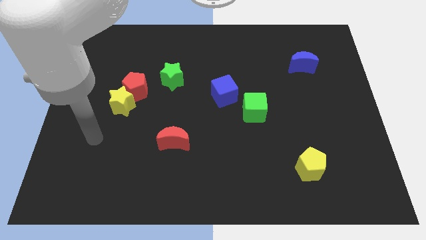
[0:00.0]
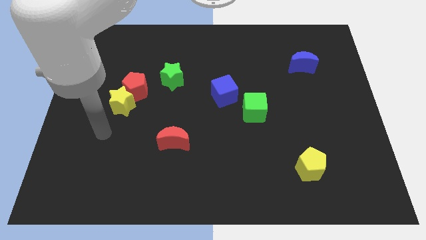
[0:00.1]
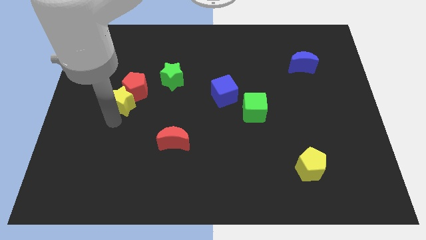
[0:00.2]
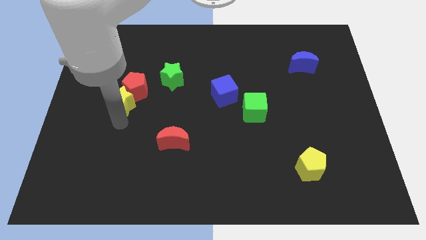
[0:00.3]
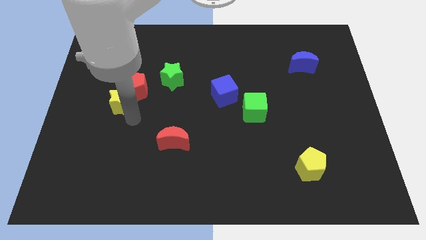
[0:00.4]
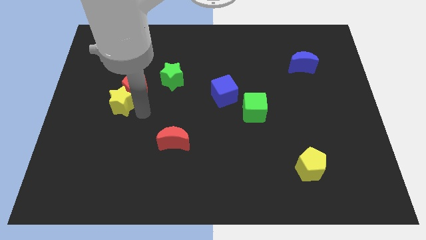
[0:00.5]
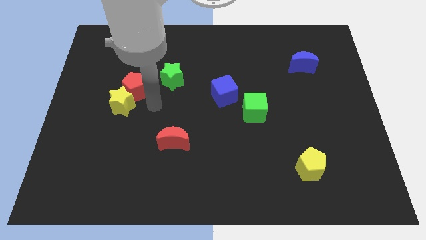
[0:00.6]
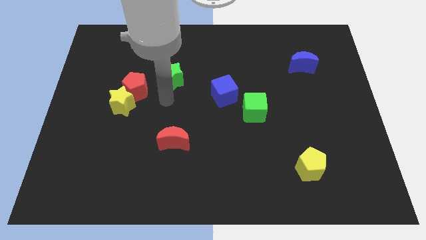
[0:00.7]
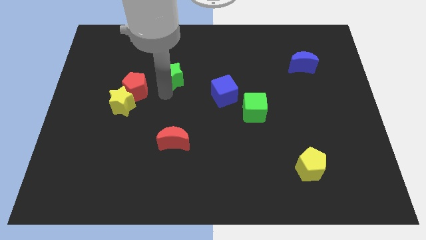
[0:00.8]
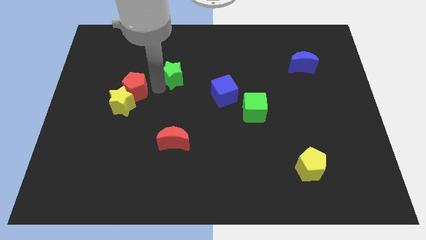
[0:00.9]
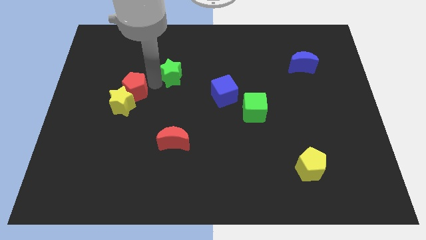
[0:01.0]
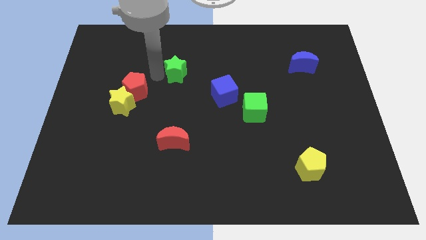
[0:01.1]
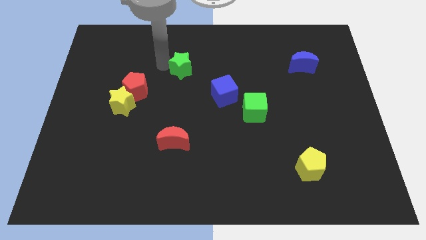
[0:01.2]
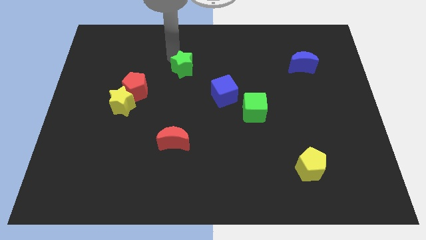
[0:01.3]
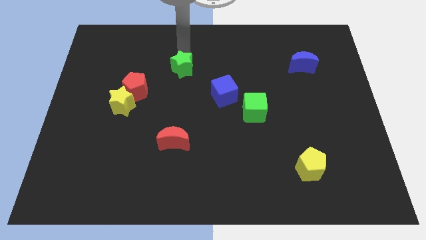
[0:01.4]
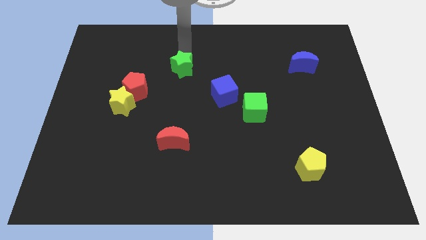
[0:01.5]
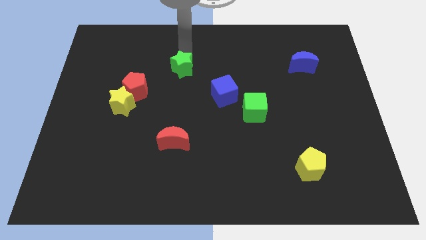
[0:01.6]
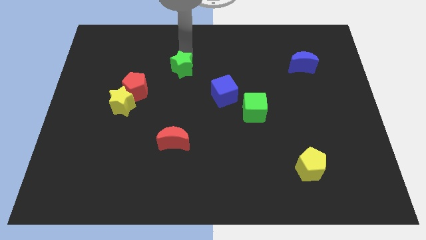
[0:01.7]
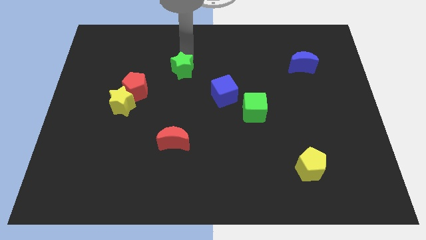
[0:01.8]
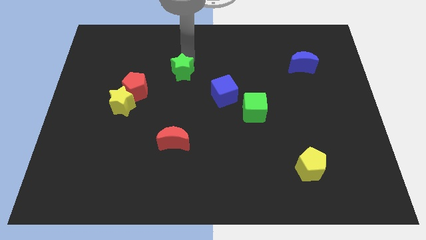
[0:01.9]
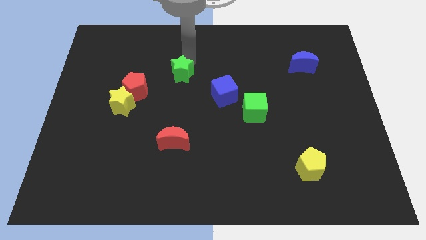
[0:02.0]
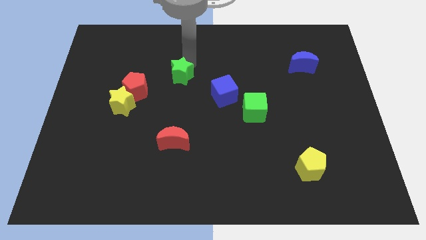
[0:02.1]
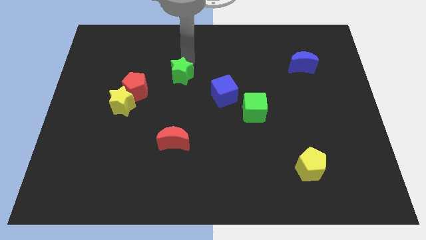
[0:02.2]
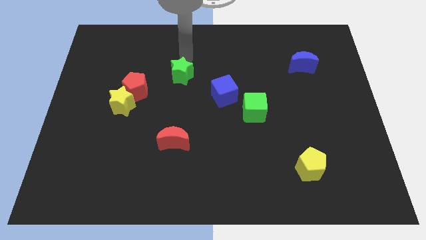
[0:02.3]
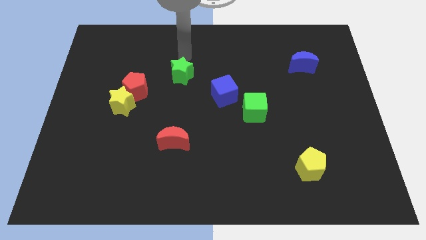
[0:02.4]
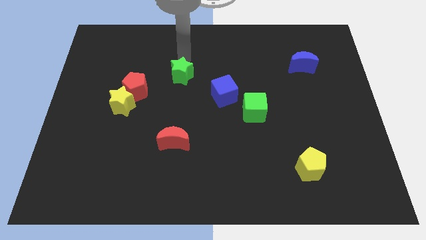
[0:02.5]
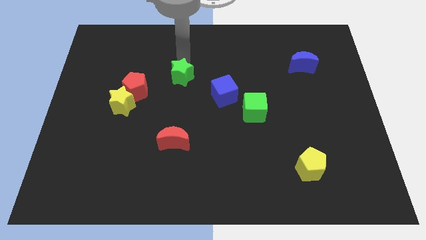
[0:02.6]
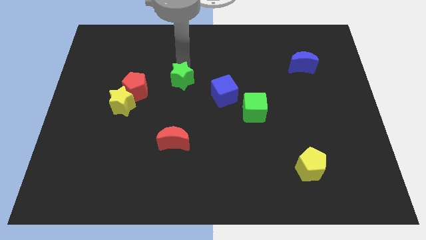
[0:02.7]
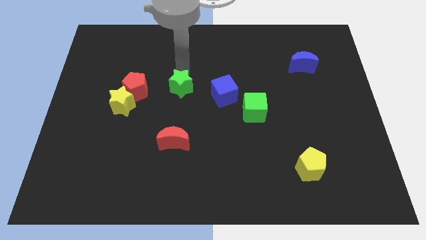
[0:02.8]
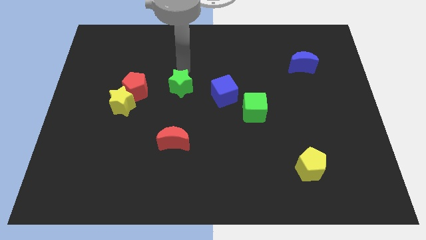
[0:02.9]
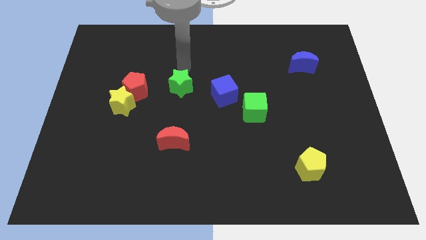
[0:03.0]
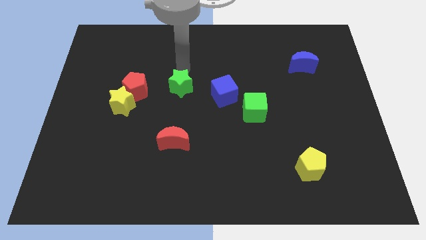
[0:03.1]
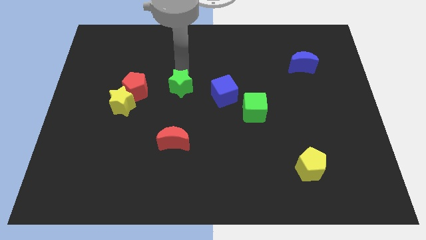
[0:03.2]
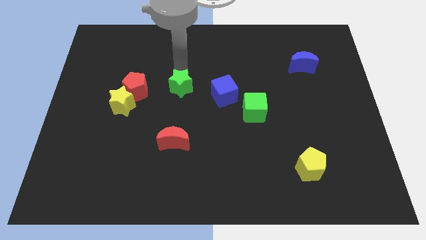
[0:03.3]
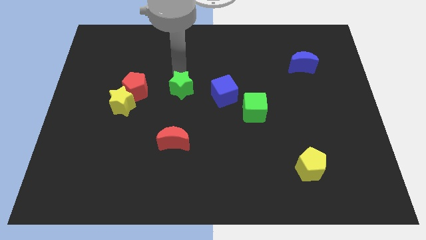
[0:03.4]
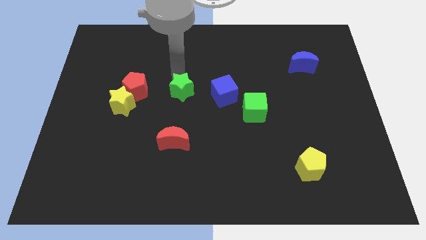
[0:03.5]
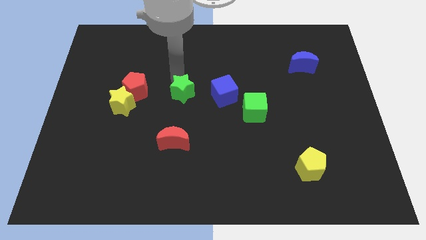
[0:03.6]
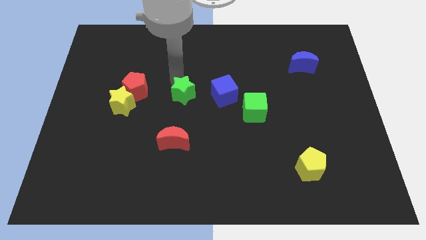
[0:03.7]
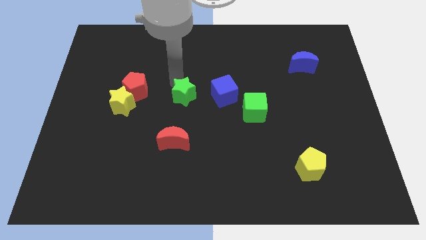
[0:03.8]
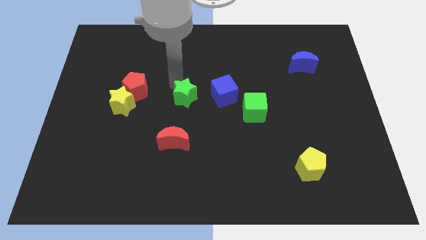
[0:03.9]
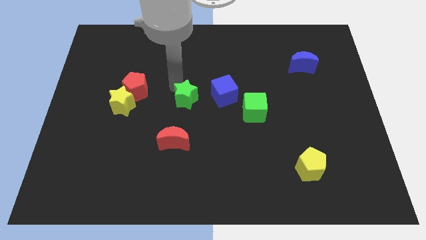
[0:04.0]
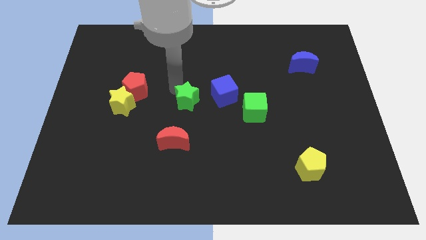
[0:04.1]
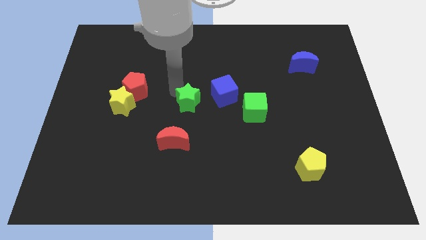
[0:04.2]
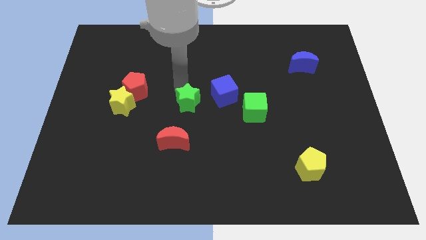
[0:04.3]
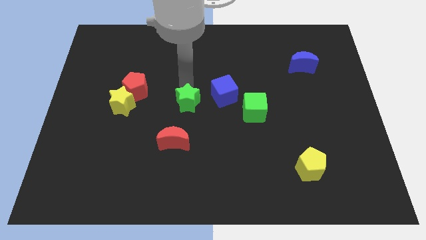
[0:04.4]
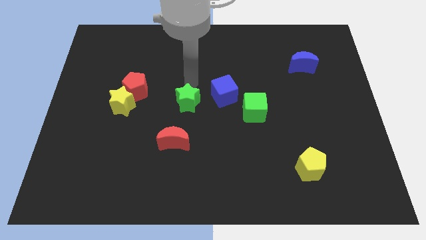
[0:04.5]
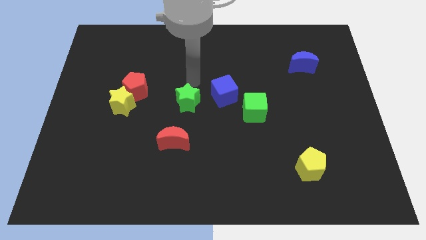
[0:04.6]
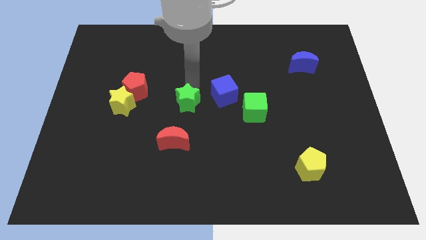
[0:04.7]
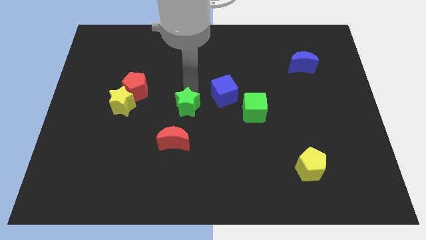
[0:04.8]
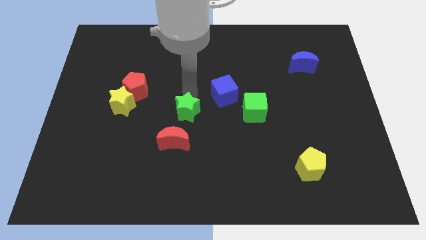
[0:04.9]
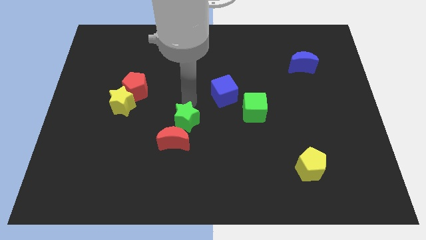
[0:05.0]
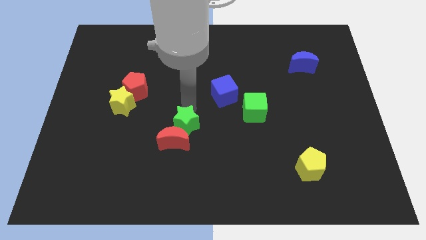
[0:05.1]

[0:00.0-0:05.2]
move the green star next to the red moon

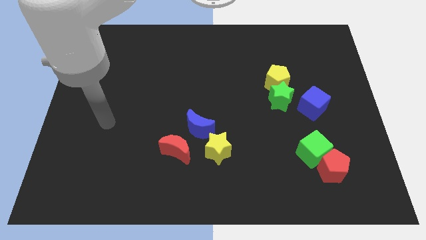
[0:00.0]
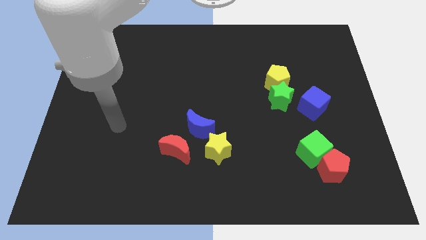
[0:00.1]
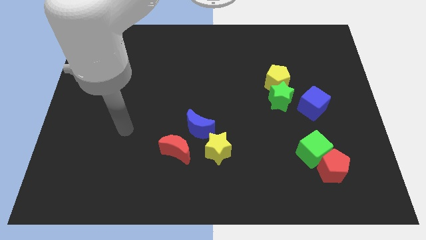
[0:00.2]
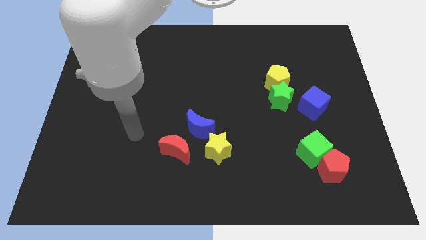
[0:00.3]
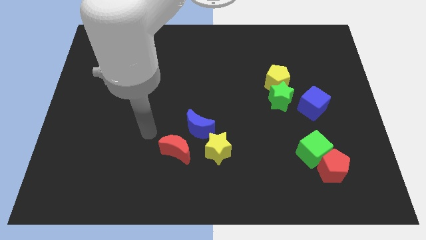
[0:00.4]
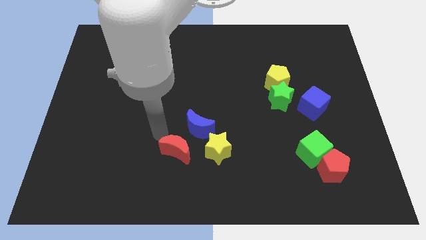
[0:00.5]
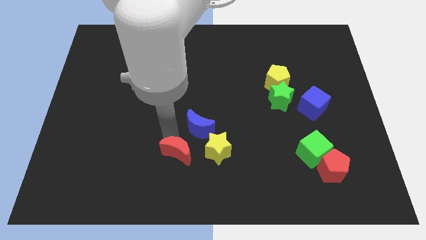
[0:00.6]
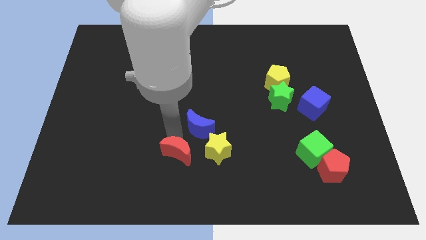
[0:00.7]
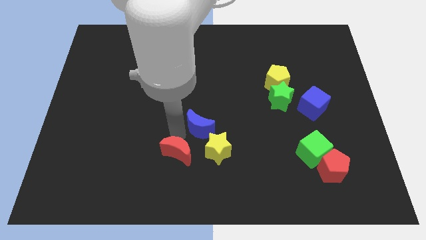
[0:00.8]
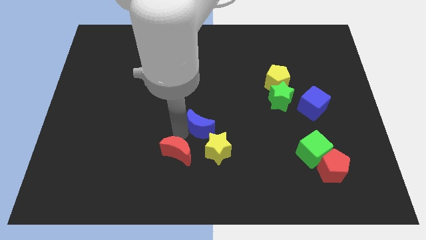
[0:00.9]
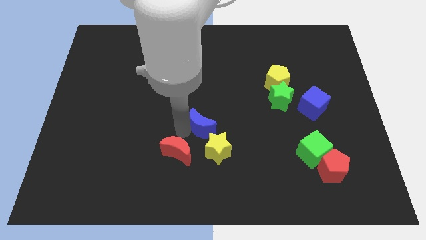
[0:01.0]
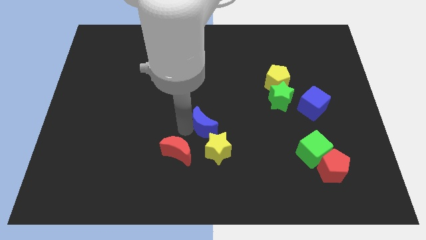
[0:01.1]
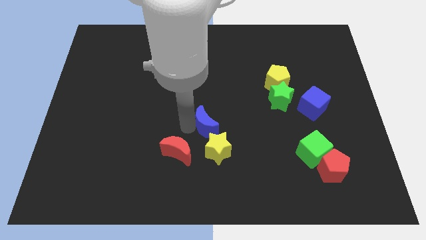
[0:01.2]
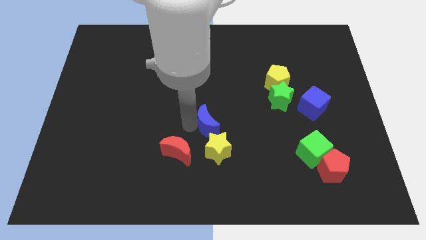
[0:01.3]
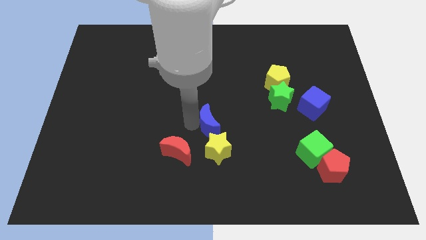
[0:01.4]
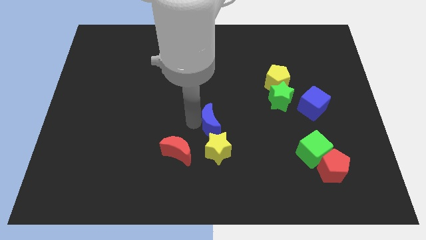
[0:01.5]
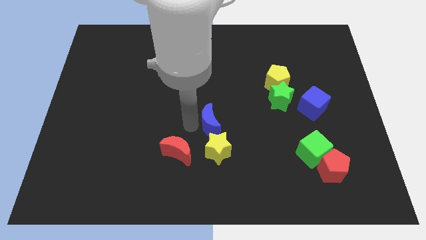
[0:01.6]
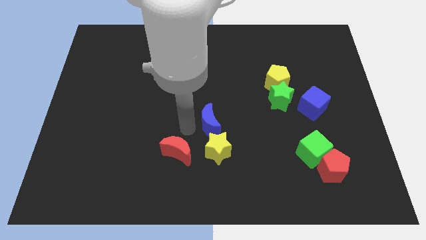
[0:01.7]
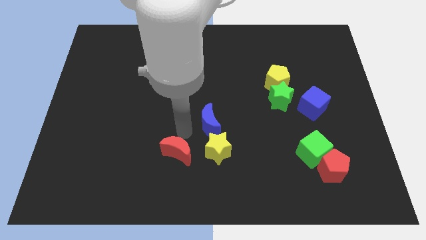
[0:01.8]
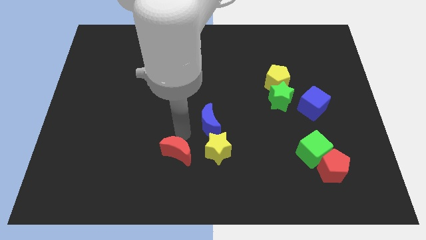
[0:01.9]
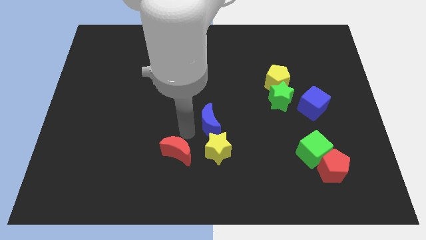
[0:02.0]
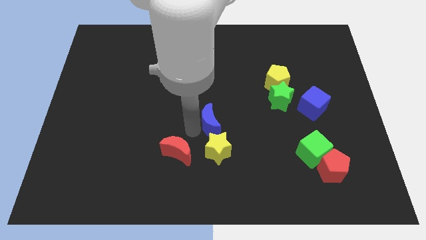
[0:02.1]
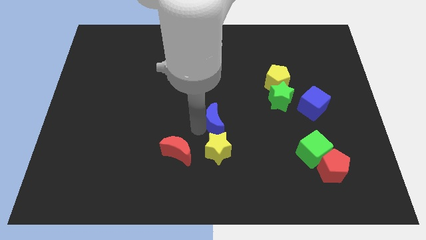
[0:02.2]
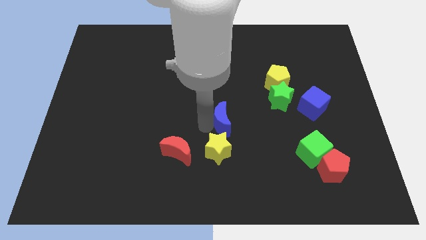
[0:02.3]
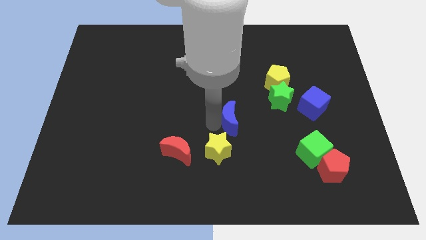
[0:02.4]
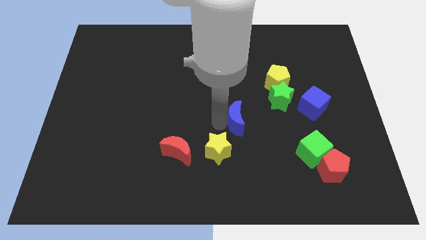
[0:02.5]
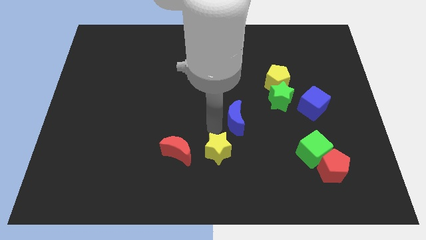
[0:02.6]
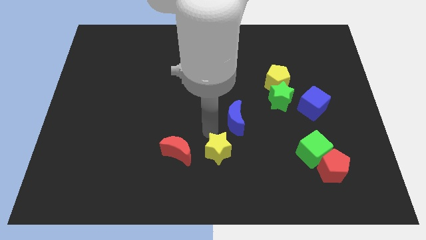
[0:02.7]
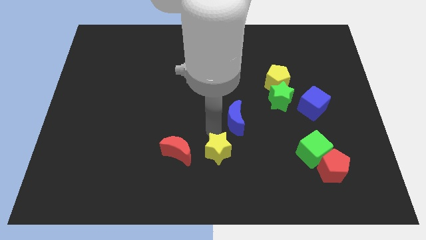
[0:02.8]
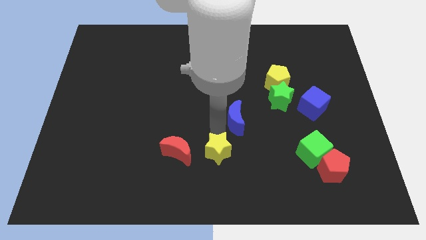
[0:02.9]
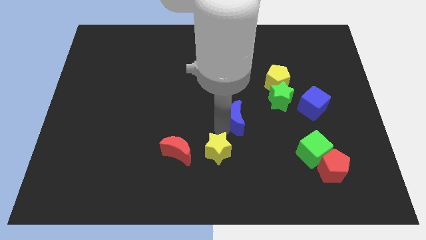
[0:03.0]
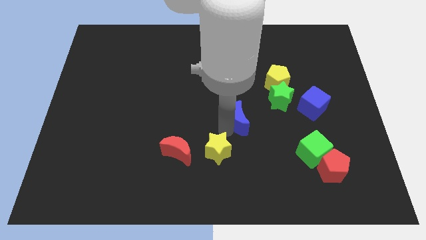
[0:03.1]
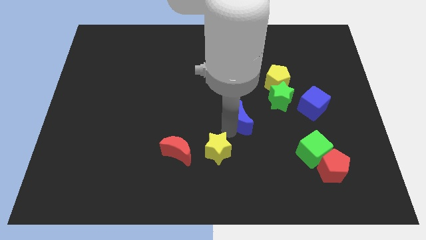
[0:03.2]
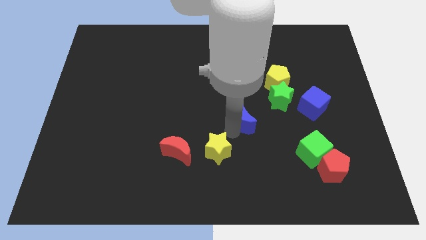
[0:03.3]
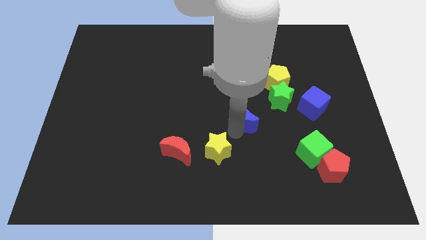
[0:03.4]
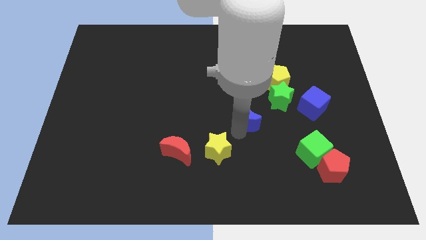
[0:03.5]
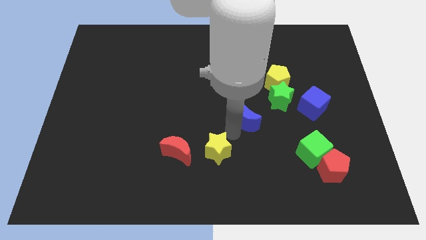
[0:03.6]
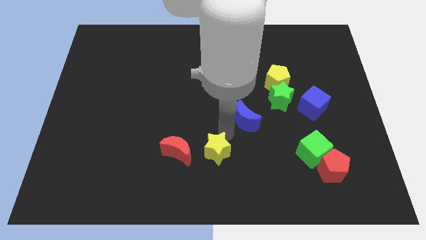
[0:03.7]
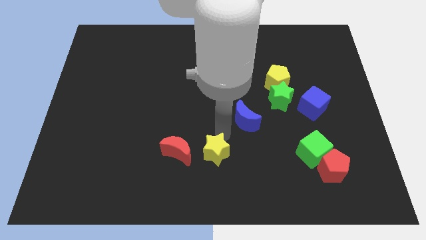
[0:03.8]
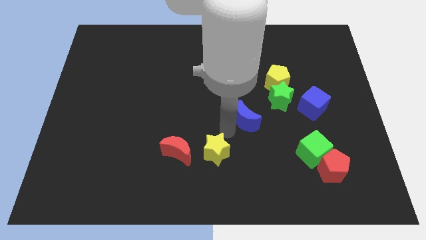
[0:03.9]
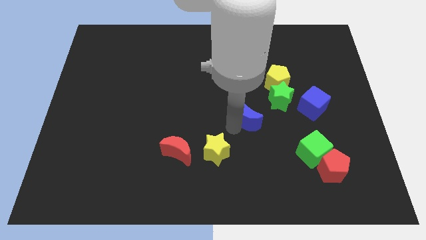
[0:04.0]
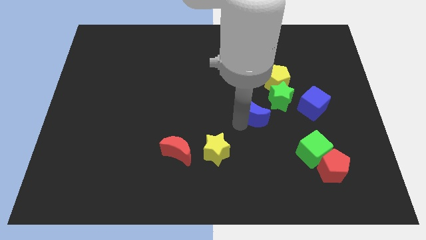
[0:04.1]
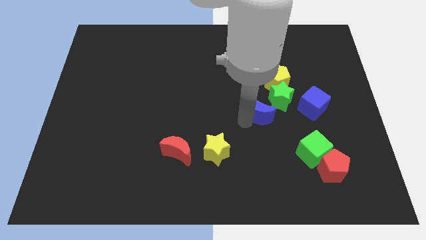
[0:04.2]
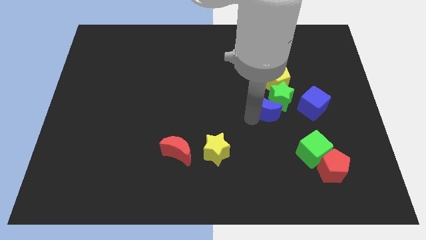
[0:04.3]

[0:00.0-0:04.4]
slide the blue moon close to the green star
